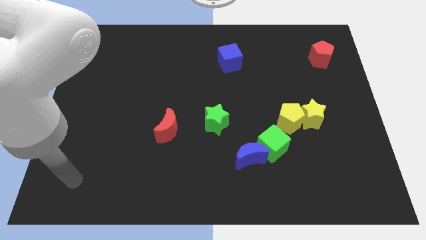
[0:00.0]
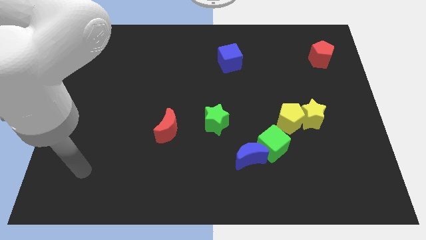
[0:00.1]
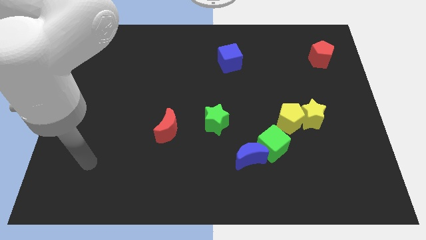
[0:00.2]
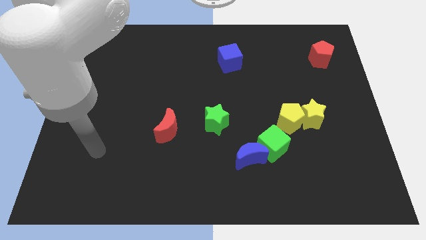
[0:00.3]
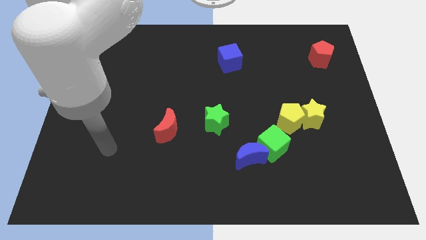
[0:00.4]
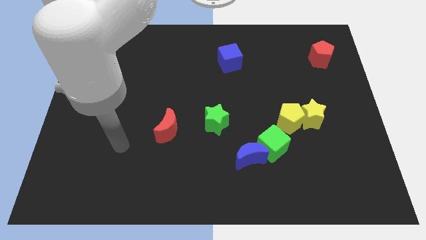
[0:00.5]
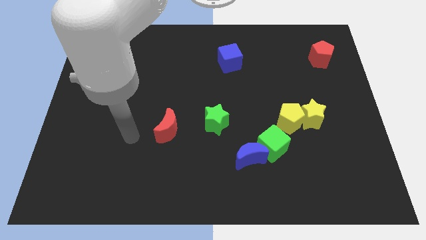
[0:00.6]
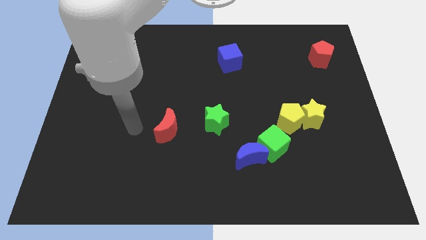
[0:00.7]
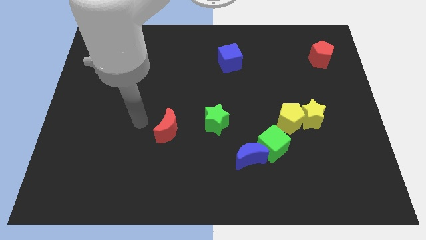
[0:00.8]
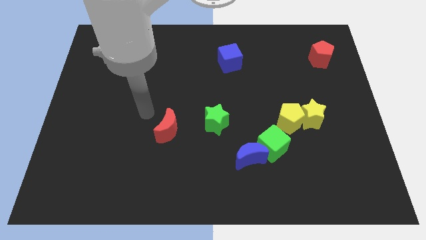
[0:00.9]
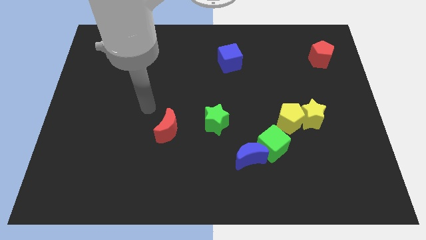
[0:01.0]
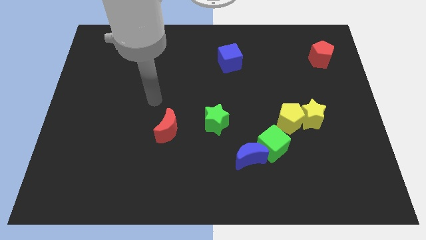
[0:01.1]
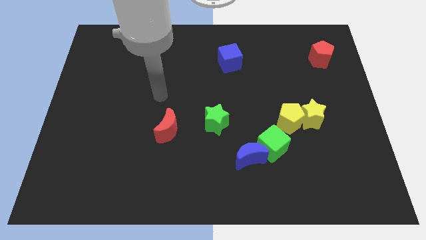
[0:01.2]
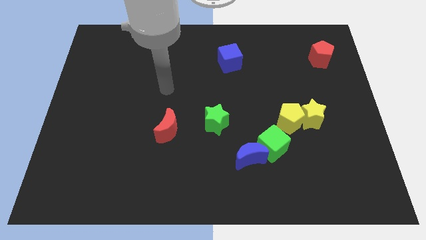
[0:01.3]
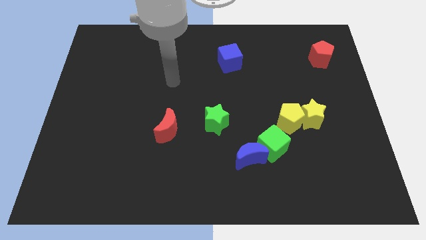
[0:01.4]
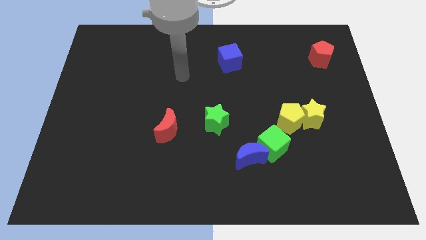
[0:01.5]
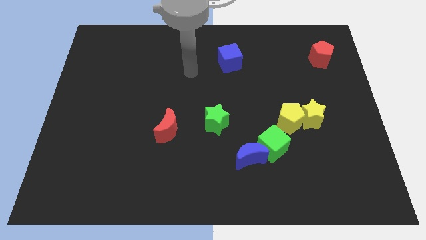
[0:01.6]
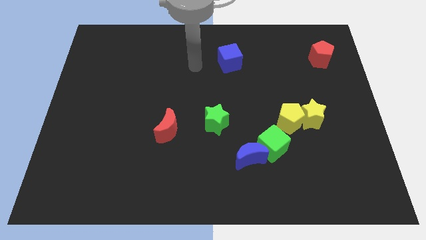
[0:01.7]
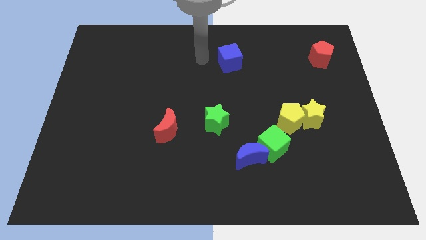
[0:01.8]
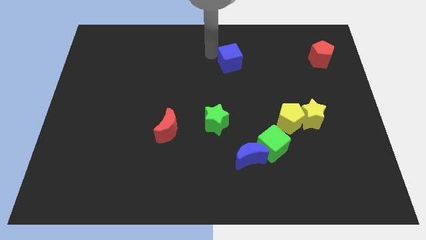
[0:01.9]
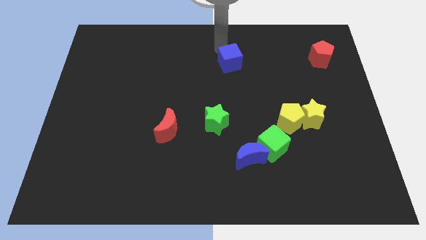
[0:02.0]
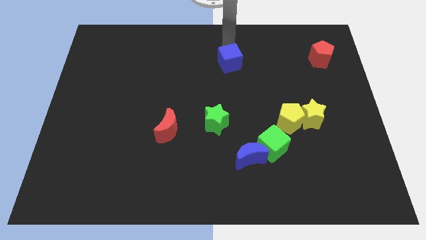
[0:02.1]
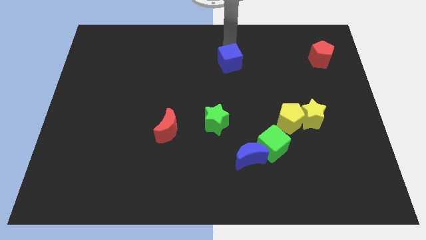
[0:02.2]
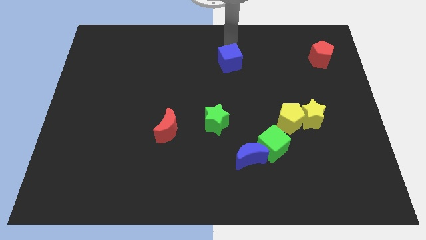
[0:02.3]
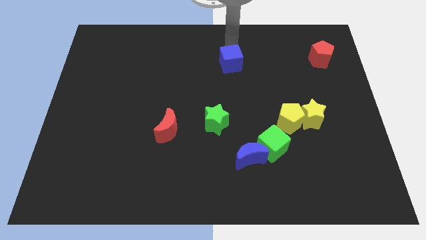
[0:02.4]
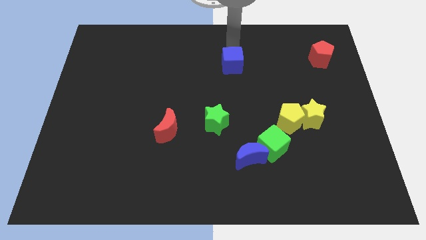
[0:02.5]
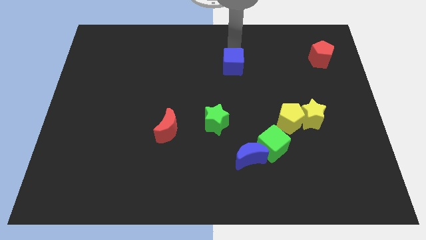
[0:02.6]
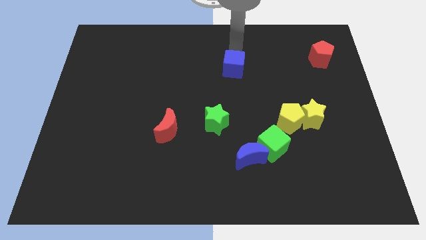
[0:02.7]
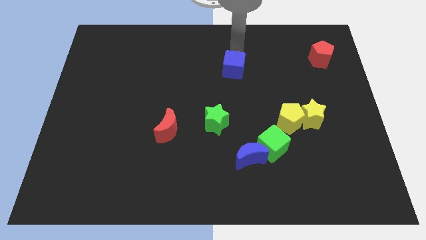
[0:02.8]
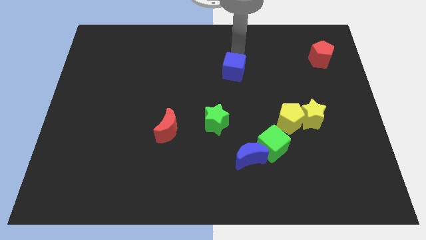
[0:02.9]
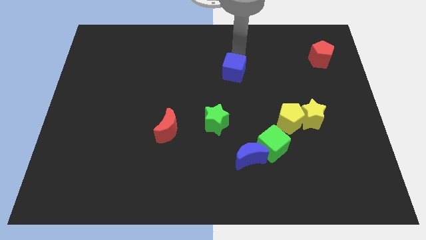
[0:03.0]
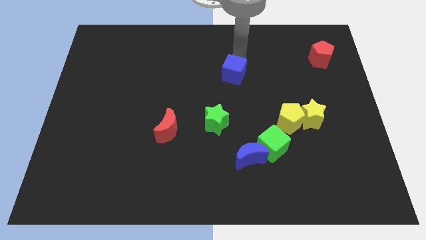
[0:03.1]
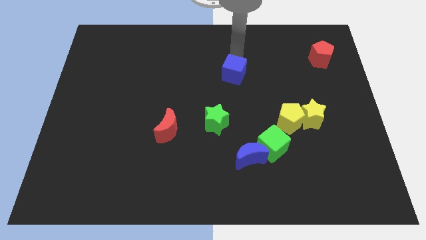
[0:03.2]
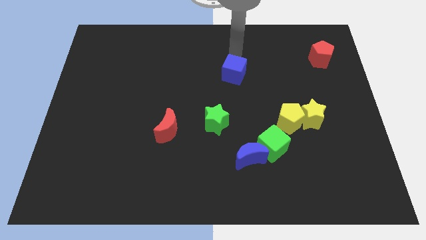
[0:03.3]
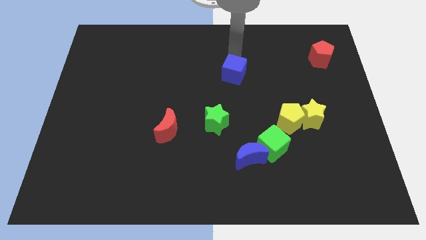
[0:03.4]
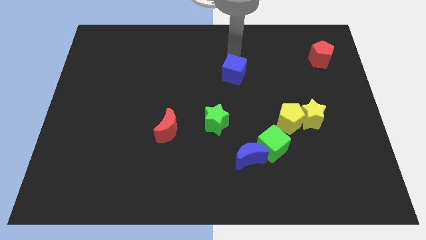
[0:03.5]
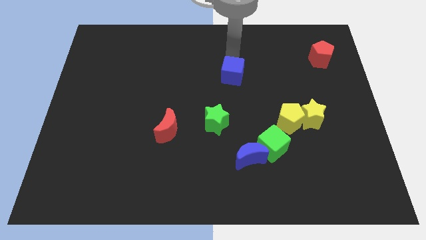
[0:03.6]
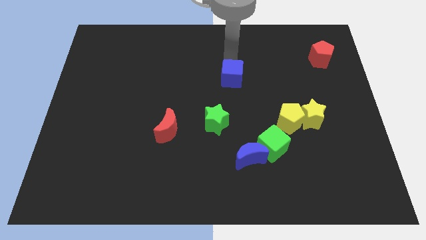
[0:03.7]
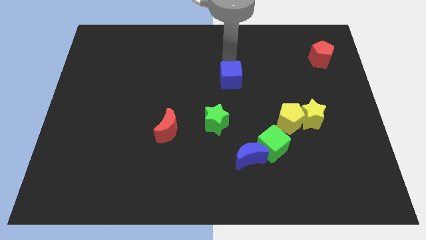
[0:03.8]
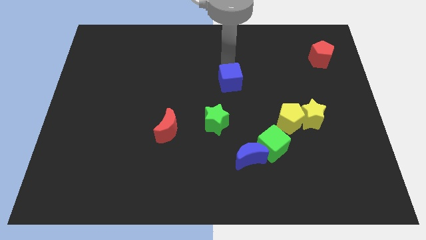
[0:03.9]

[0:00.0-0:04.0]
push the blue cube somewhat downwards

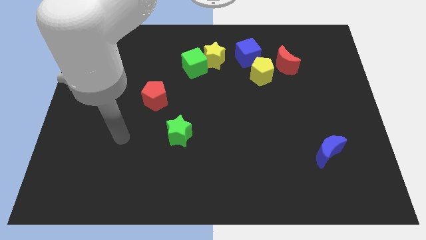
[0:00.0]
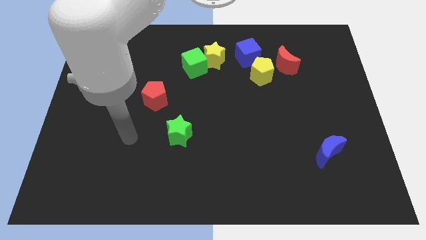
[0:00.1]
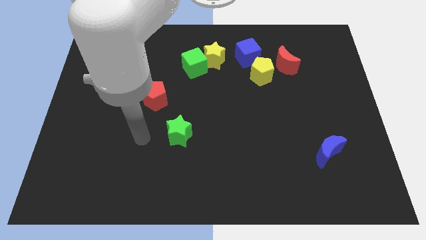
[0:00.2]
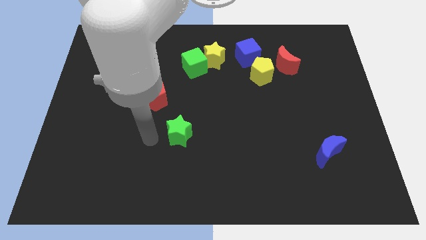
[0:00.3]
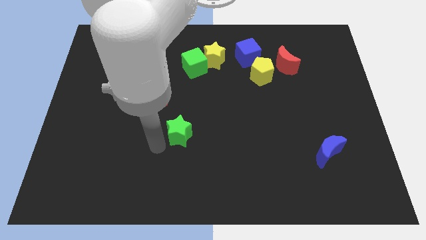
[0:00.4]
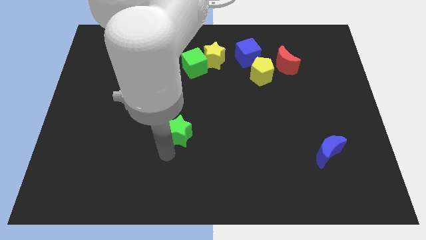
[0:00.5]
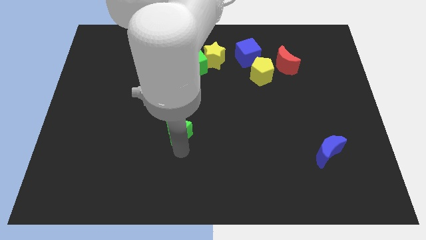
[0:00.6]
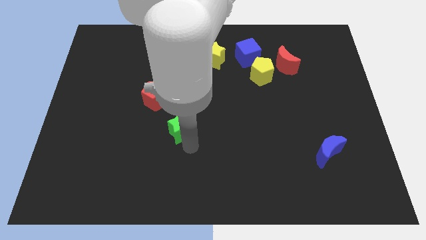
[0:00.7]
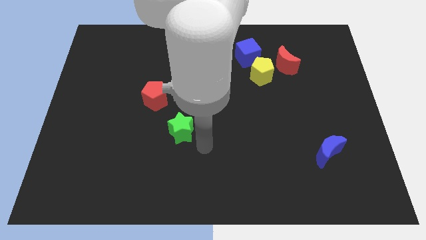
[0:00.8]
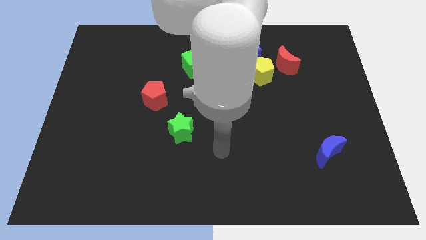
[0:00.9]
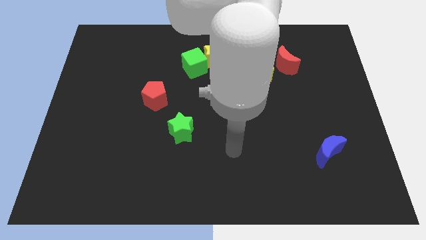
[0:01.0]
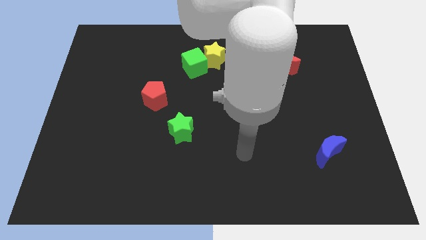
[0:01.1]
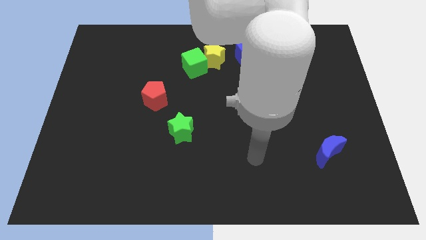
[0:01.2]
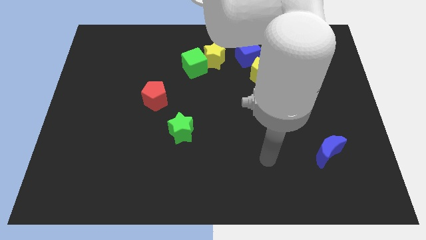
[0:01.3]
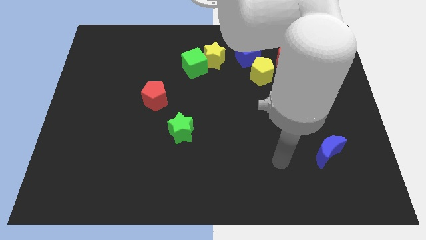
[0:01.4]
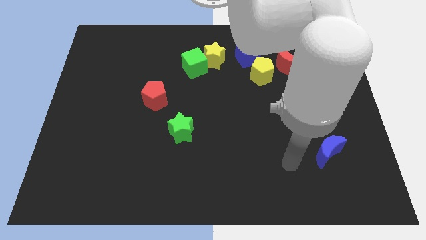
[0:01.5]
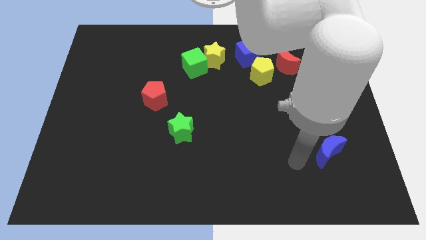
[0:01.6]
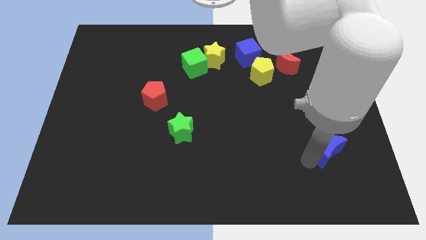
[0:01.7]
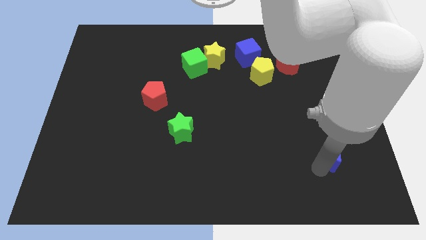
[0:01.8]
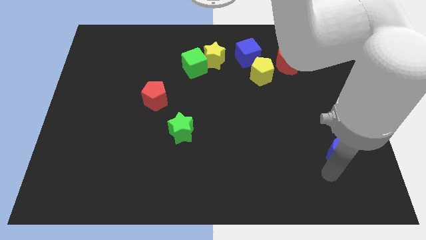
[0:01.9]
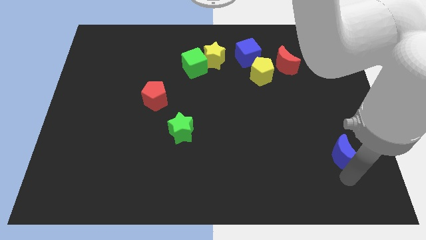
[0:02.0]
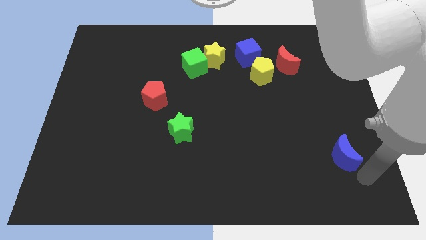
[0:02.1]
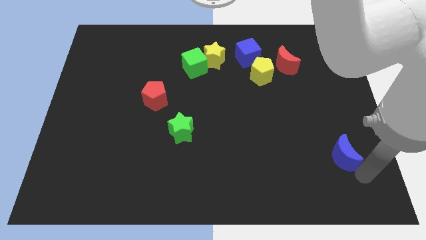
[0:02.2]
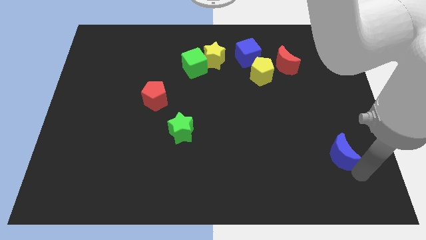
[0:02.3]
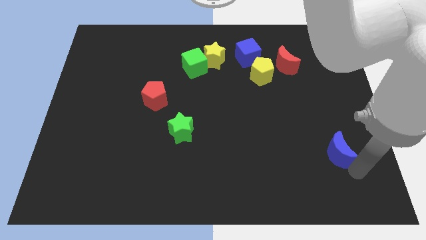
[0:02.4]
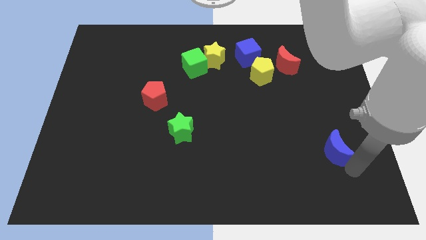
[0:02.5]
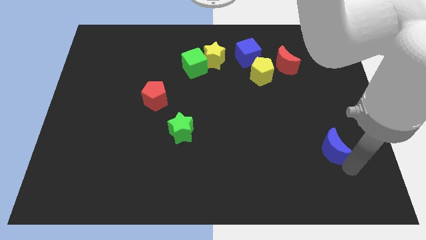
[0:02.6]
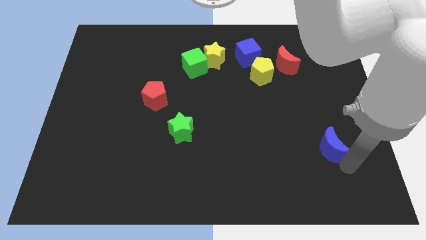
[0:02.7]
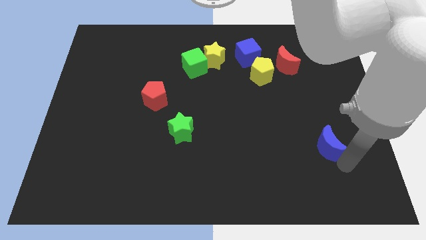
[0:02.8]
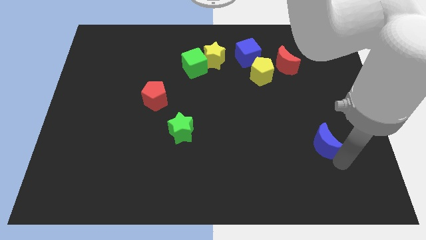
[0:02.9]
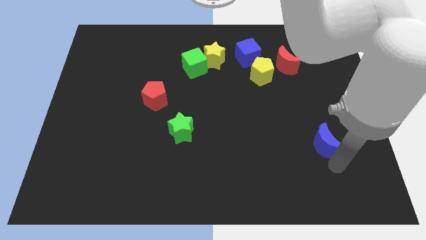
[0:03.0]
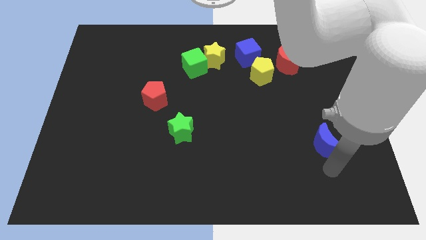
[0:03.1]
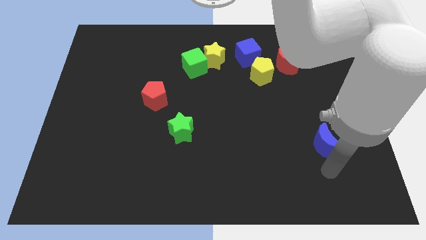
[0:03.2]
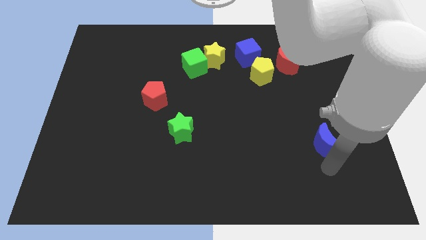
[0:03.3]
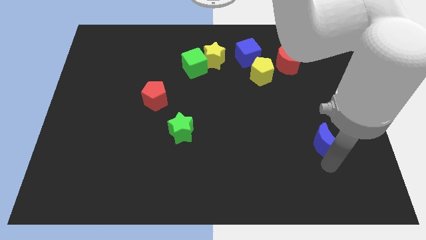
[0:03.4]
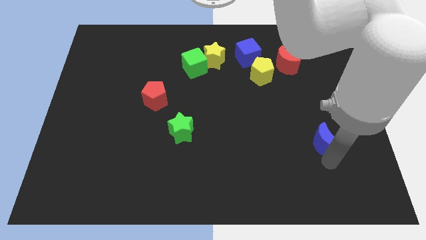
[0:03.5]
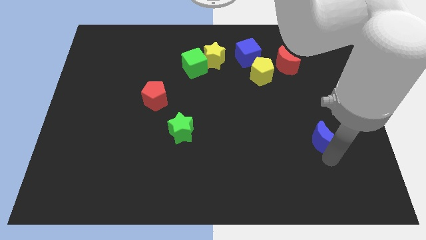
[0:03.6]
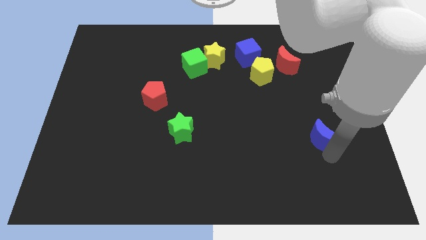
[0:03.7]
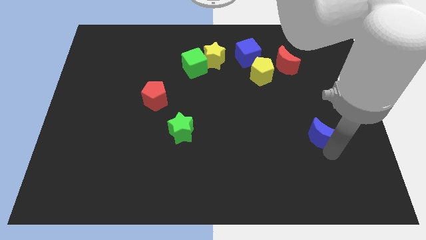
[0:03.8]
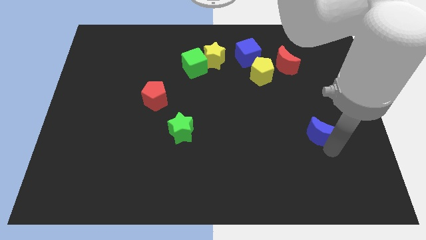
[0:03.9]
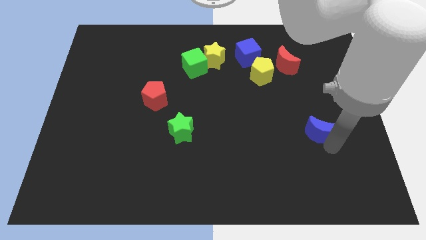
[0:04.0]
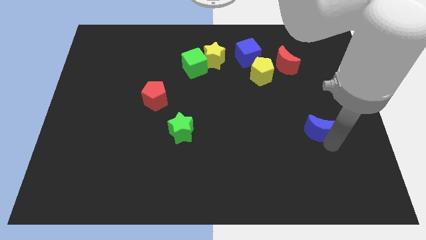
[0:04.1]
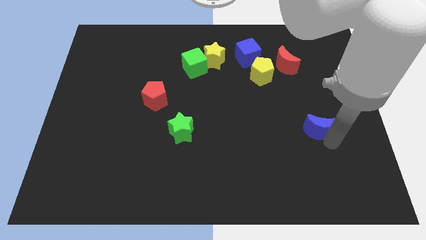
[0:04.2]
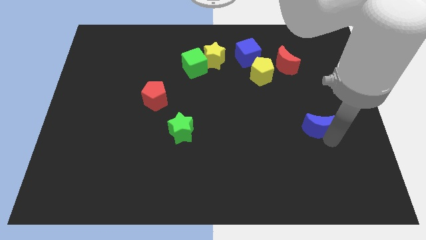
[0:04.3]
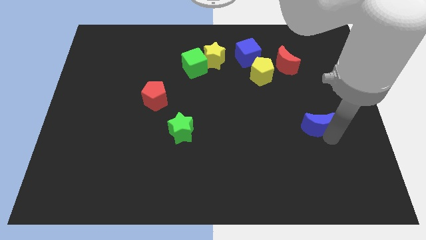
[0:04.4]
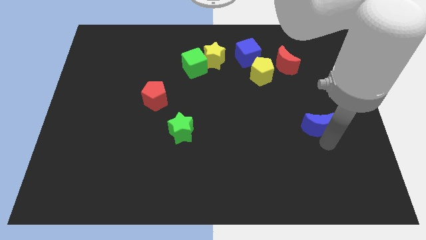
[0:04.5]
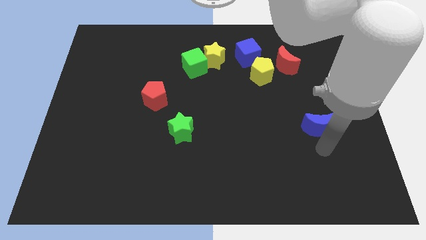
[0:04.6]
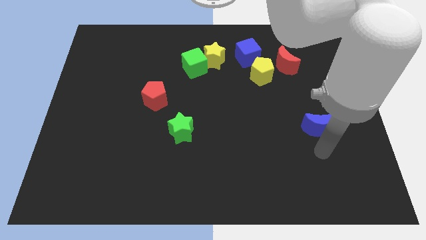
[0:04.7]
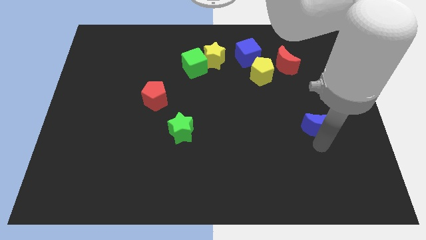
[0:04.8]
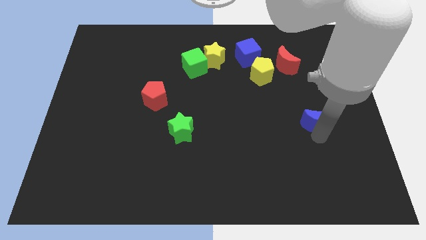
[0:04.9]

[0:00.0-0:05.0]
move the blue moon upwards a bit
